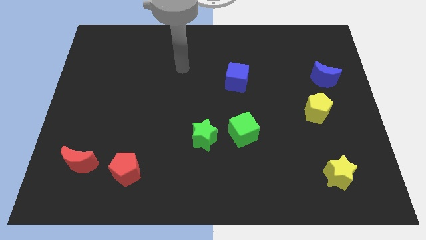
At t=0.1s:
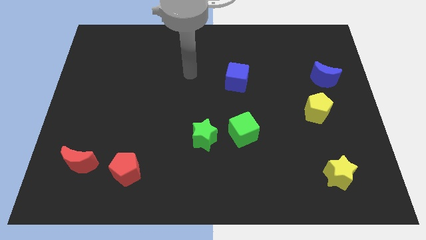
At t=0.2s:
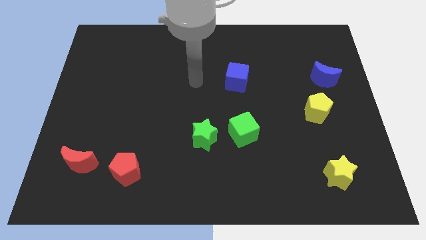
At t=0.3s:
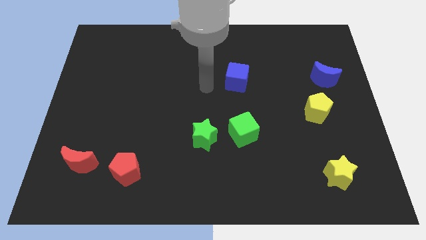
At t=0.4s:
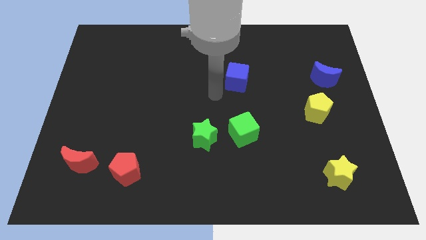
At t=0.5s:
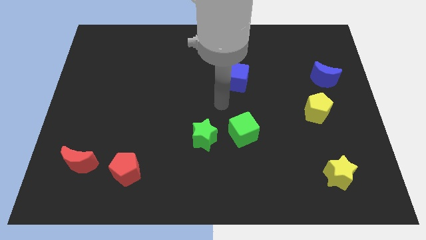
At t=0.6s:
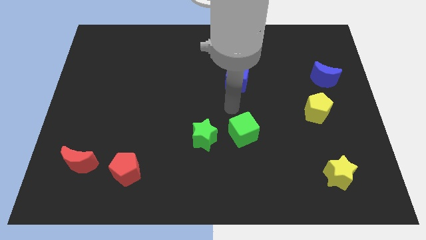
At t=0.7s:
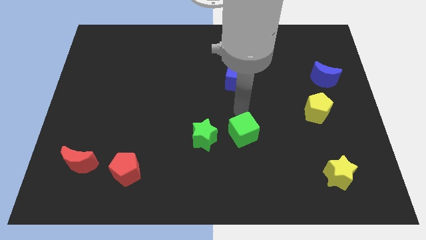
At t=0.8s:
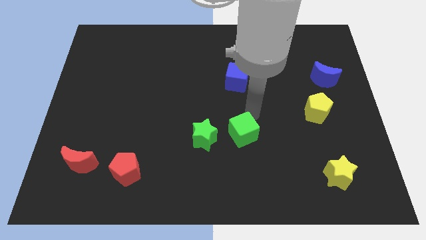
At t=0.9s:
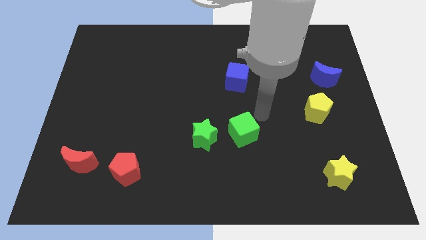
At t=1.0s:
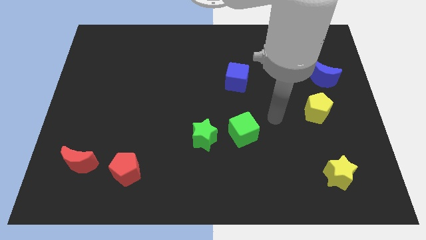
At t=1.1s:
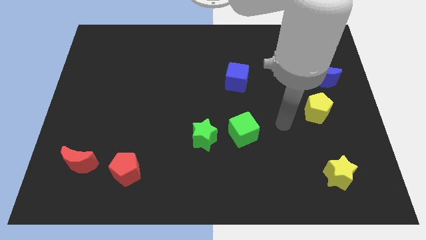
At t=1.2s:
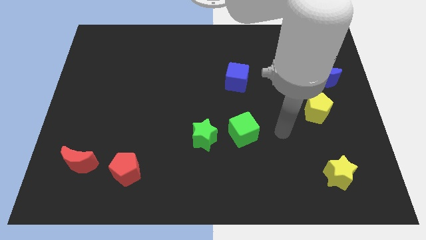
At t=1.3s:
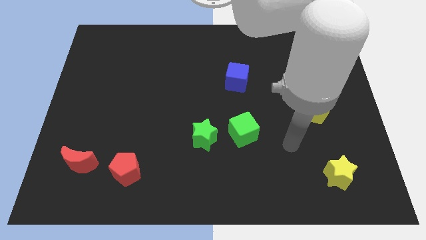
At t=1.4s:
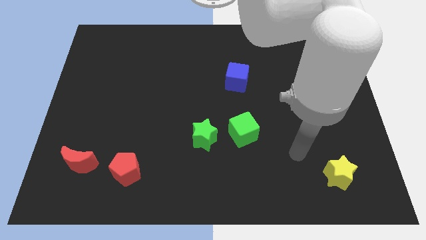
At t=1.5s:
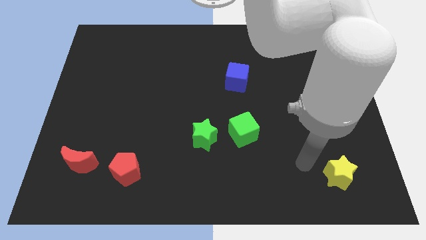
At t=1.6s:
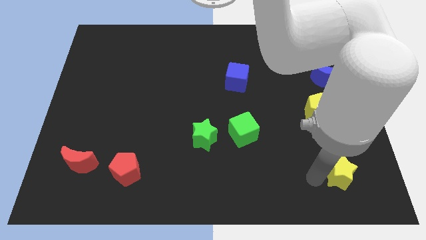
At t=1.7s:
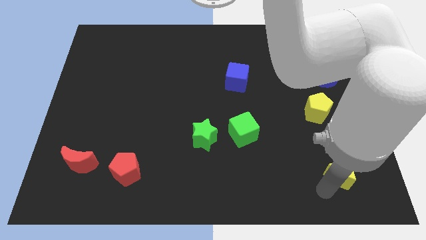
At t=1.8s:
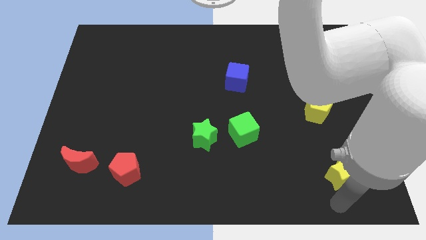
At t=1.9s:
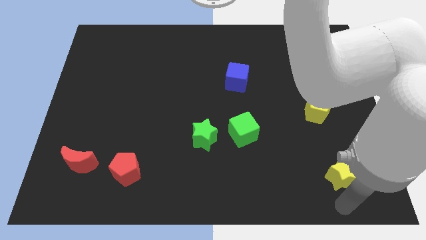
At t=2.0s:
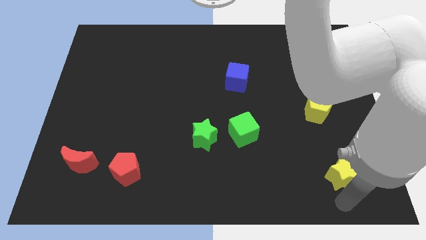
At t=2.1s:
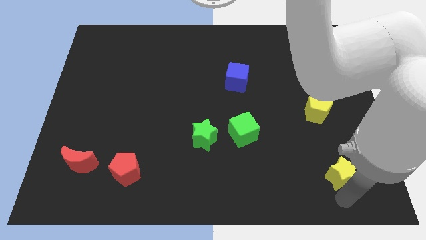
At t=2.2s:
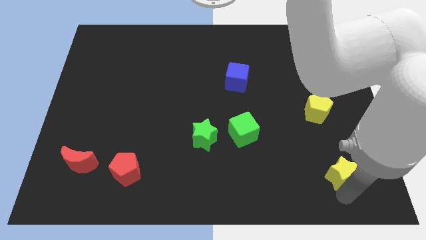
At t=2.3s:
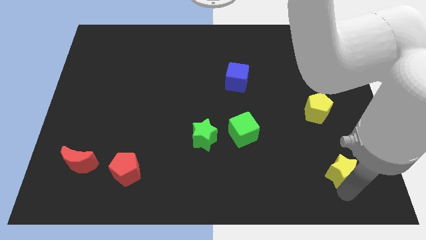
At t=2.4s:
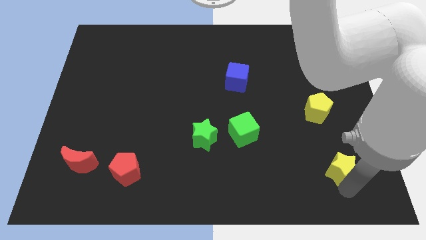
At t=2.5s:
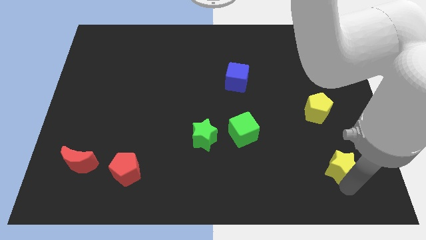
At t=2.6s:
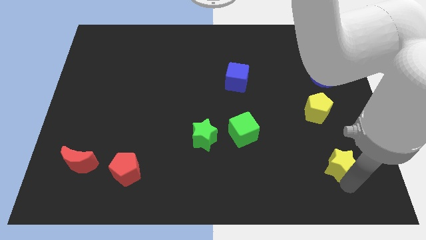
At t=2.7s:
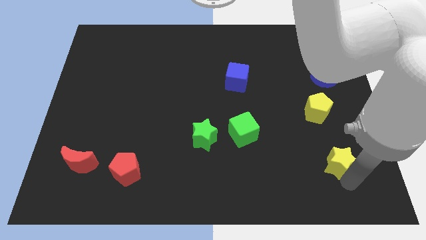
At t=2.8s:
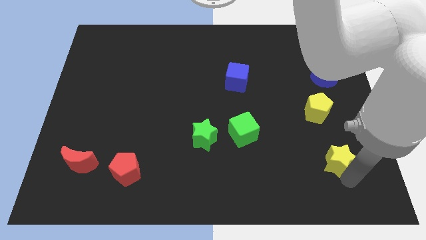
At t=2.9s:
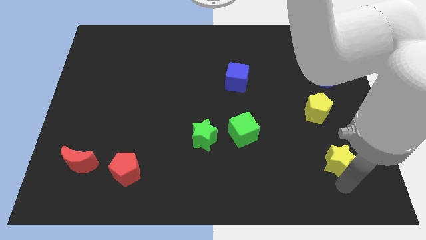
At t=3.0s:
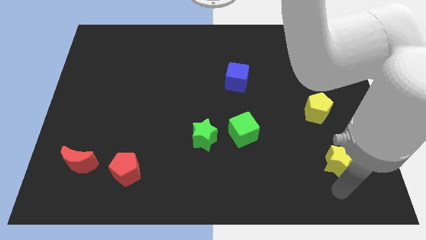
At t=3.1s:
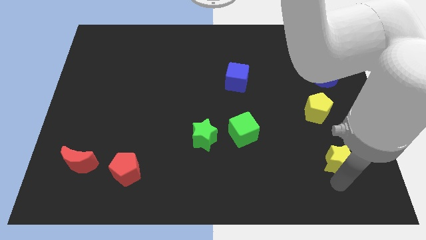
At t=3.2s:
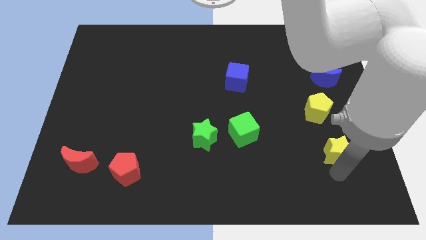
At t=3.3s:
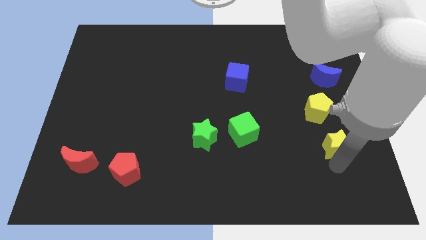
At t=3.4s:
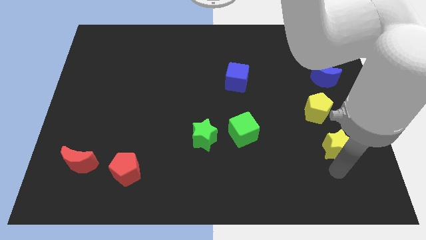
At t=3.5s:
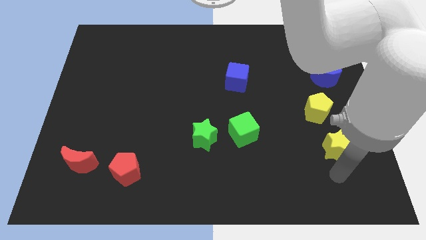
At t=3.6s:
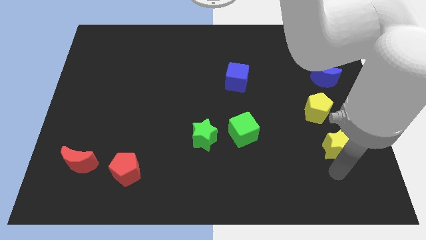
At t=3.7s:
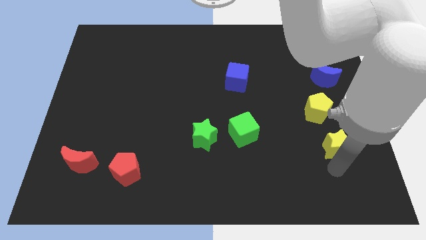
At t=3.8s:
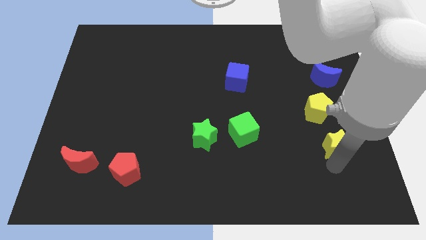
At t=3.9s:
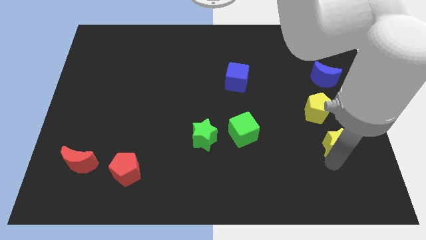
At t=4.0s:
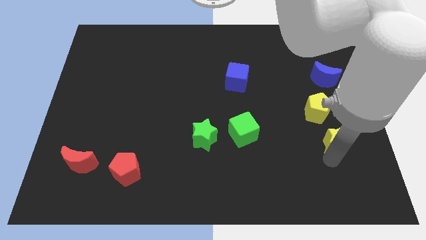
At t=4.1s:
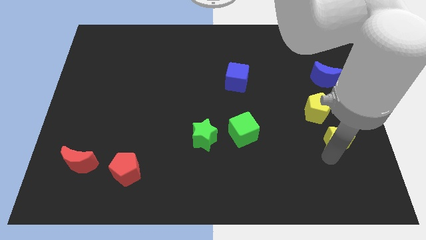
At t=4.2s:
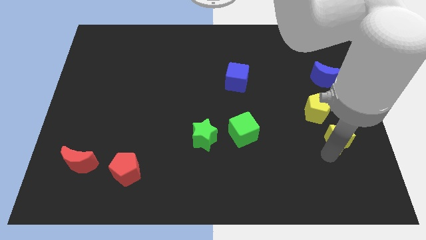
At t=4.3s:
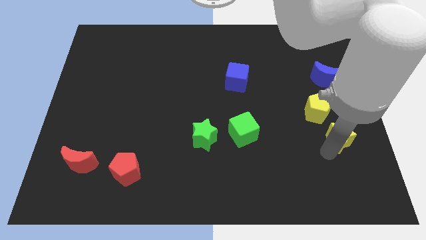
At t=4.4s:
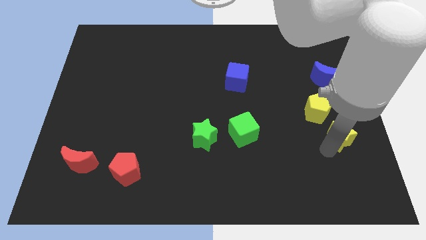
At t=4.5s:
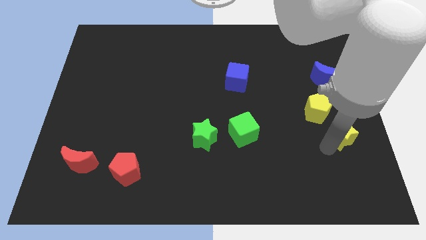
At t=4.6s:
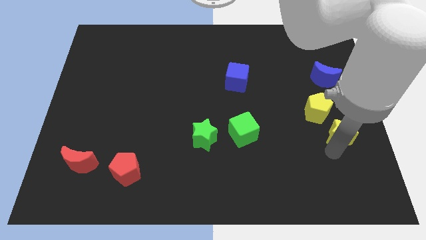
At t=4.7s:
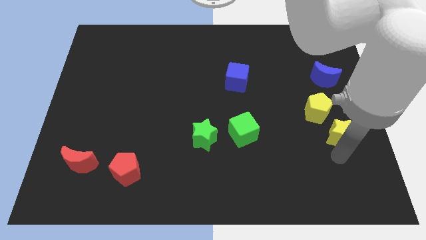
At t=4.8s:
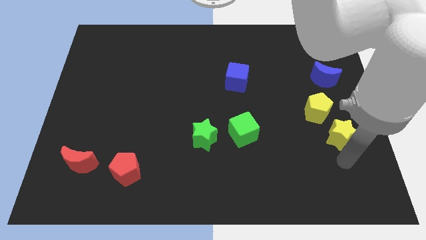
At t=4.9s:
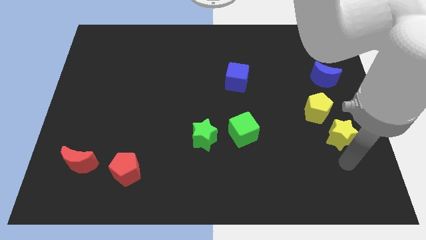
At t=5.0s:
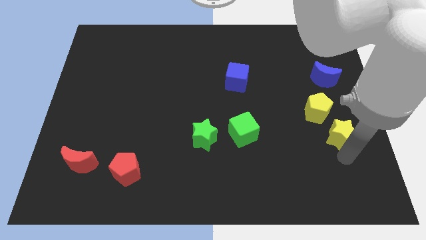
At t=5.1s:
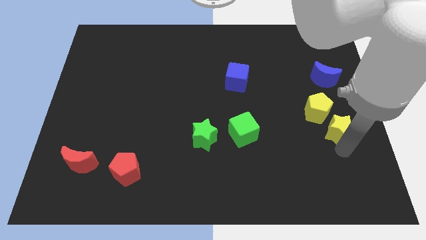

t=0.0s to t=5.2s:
push the yellow star below the blue moon

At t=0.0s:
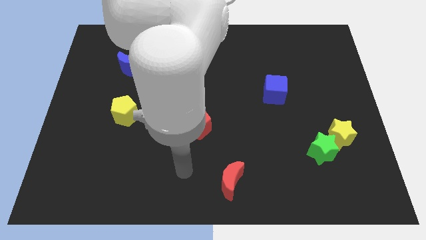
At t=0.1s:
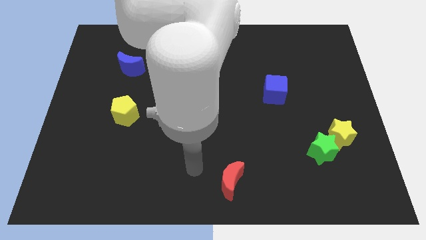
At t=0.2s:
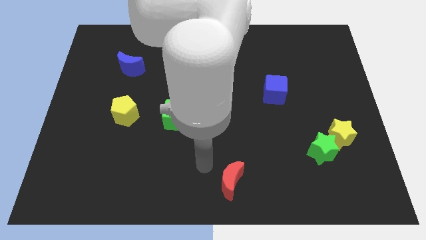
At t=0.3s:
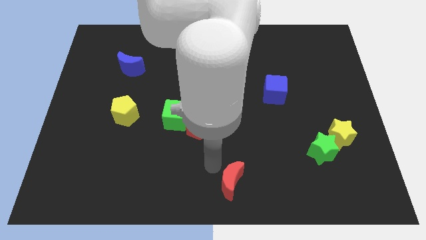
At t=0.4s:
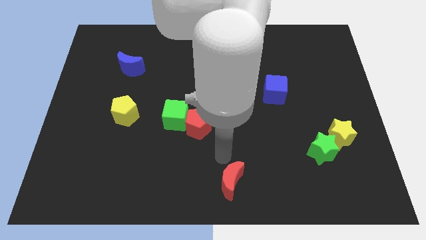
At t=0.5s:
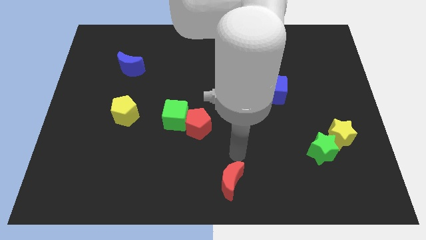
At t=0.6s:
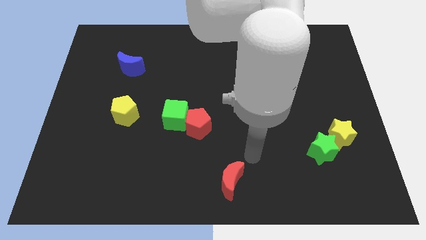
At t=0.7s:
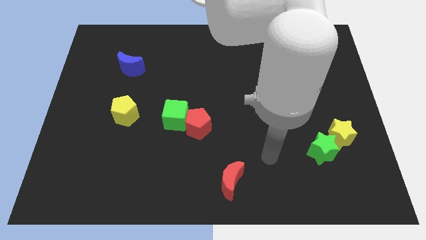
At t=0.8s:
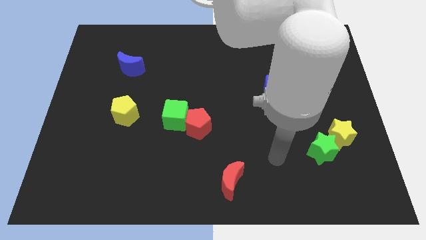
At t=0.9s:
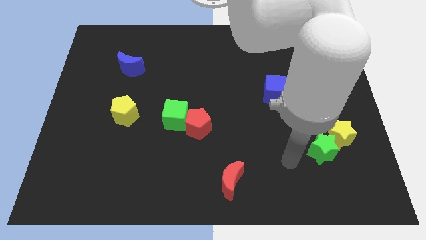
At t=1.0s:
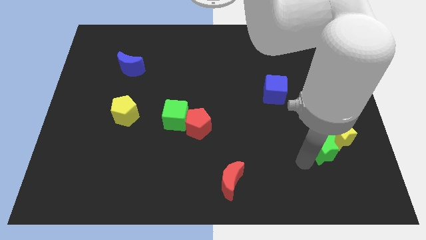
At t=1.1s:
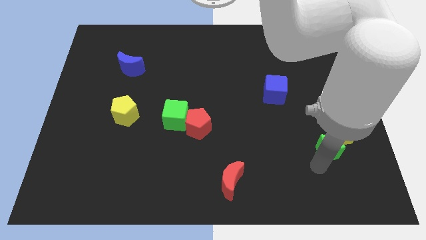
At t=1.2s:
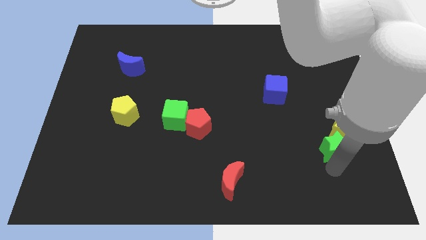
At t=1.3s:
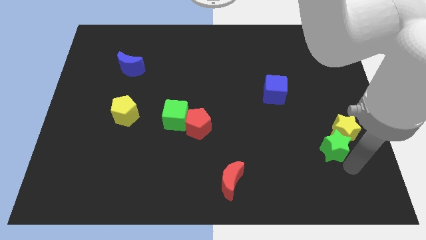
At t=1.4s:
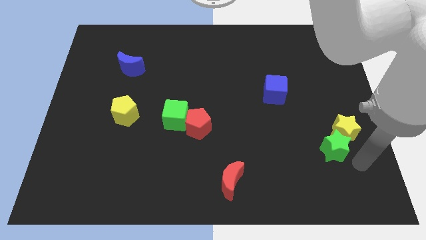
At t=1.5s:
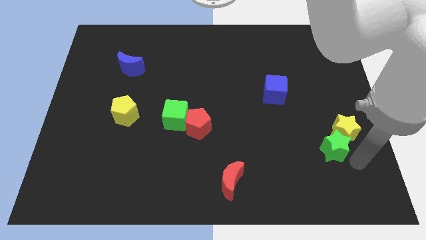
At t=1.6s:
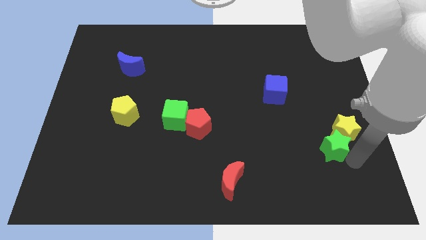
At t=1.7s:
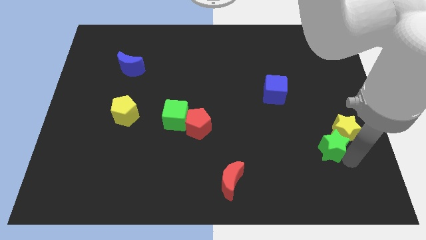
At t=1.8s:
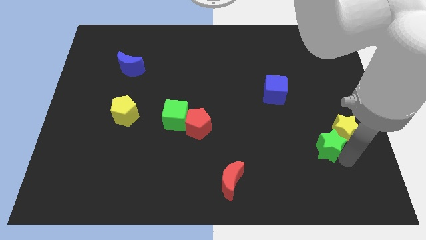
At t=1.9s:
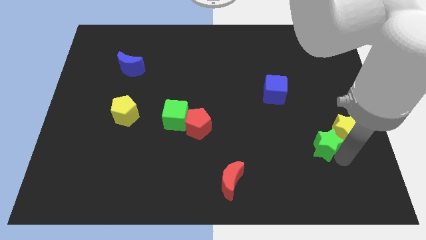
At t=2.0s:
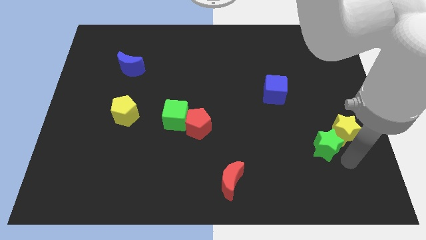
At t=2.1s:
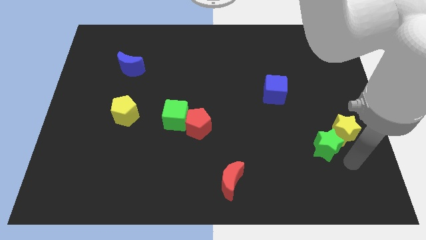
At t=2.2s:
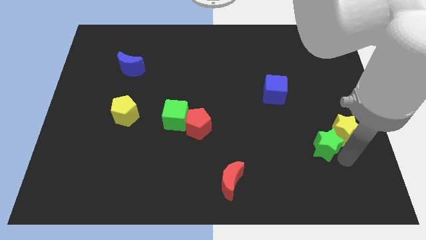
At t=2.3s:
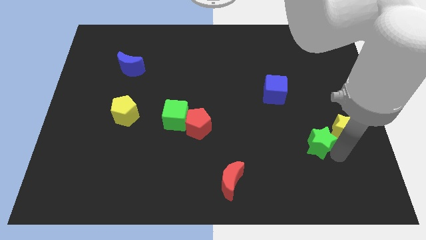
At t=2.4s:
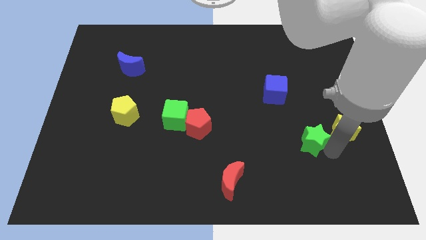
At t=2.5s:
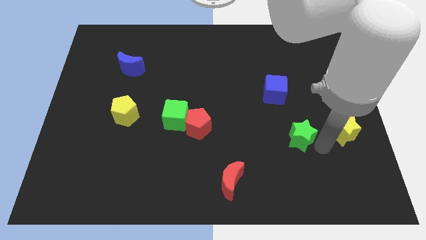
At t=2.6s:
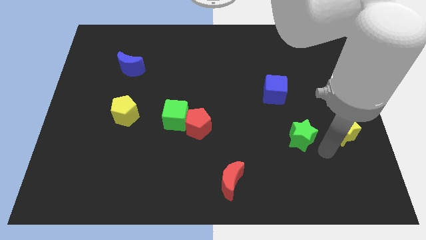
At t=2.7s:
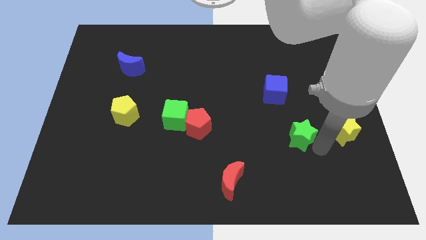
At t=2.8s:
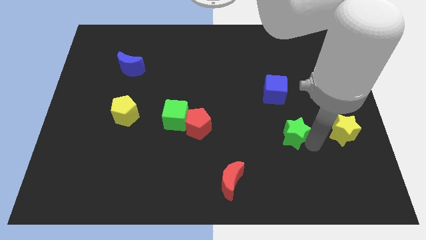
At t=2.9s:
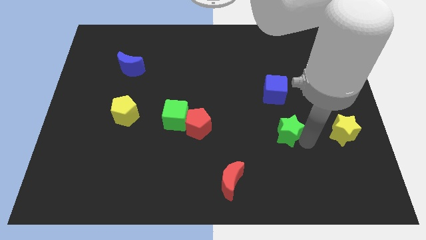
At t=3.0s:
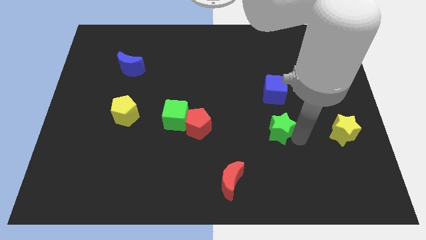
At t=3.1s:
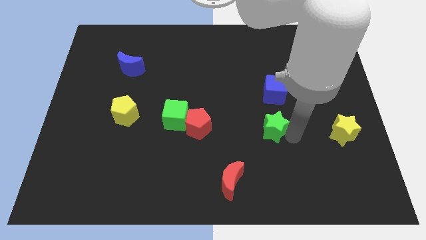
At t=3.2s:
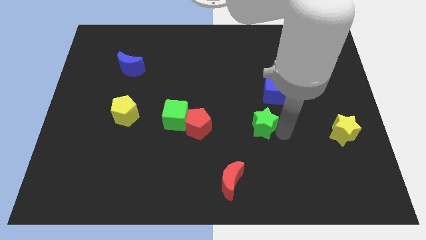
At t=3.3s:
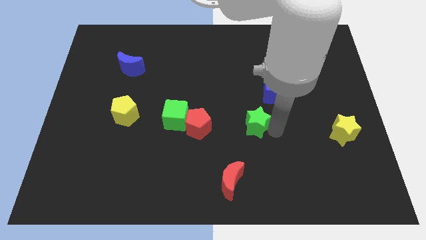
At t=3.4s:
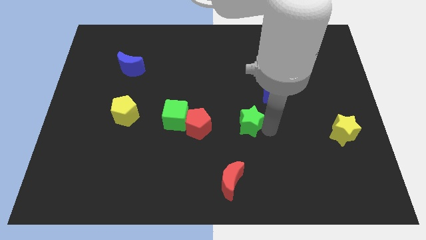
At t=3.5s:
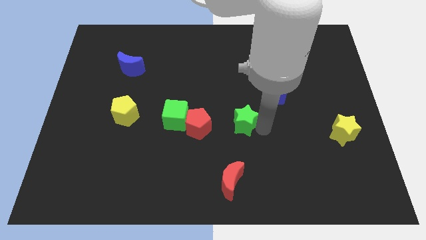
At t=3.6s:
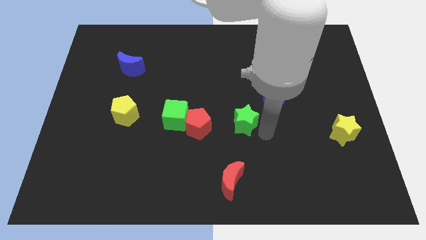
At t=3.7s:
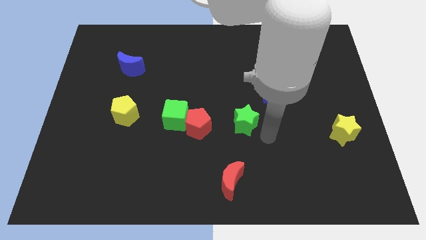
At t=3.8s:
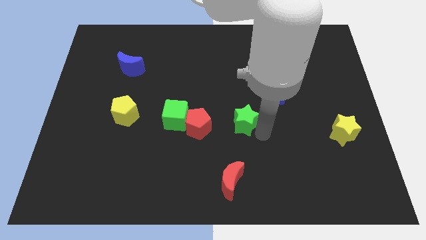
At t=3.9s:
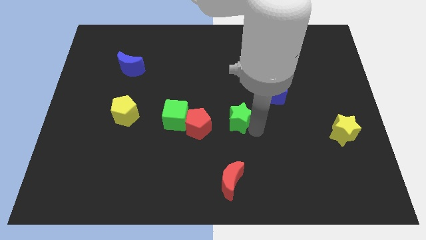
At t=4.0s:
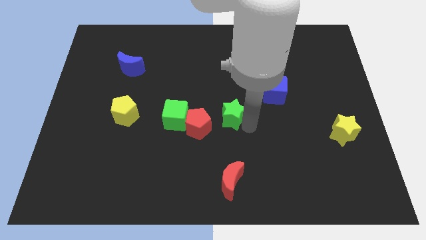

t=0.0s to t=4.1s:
move the green star diagonally up and to the right of the red pentagon
